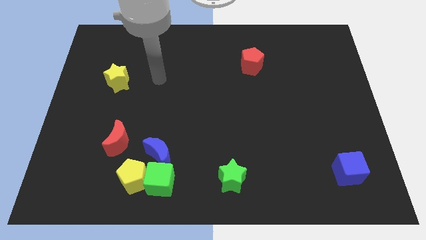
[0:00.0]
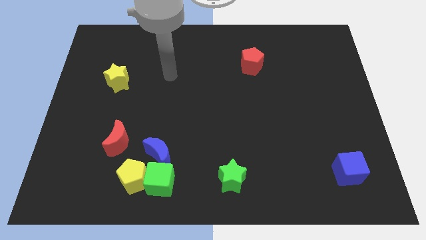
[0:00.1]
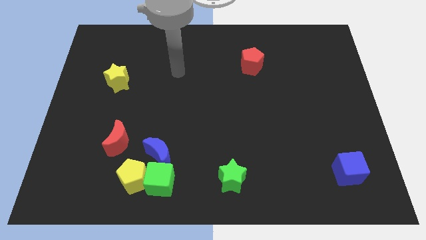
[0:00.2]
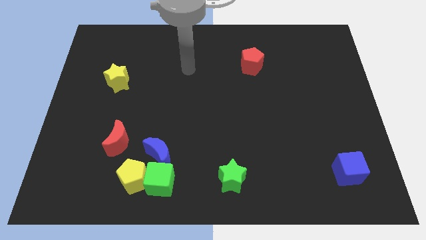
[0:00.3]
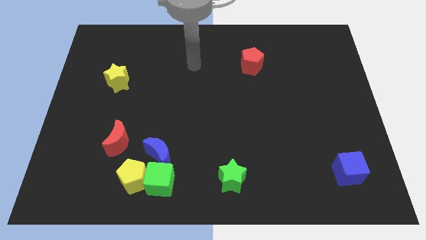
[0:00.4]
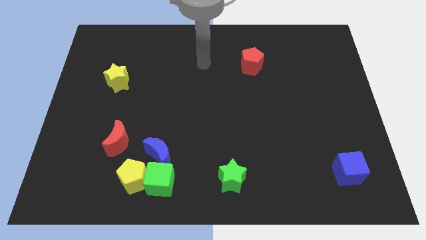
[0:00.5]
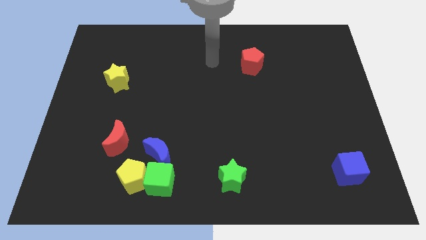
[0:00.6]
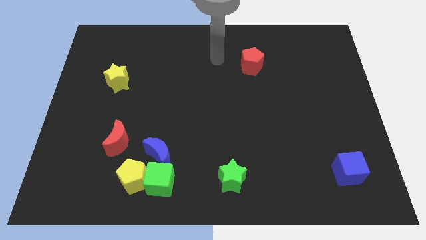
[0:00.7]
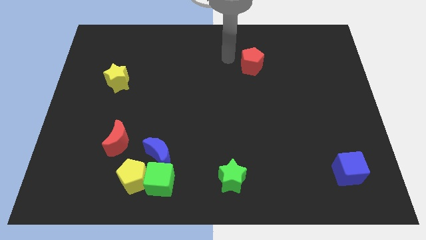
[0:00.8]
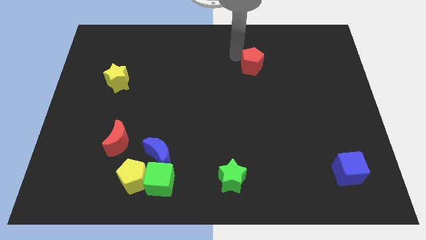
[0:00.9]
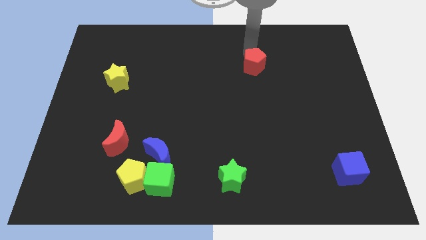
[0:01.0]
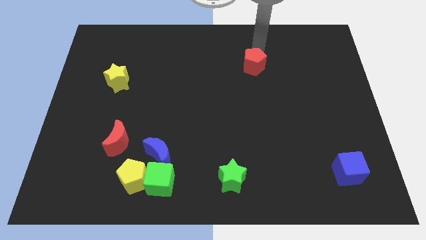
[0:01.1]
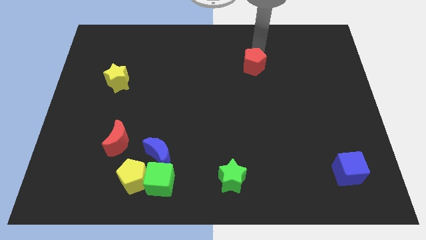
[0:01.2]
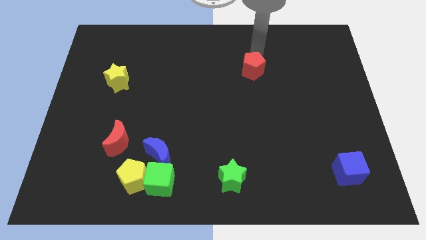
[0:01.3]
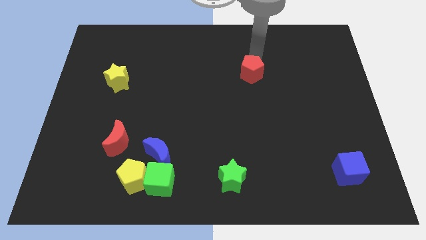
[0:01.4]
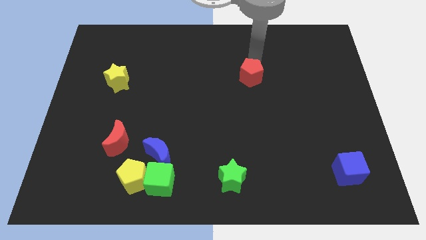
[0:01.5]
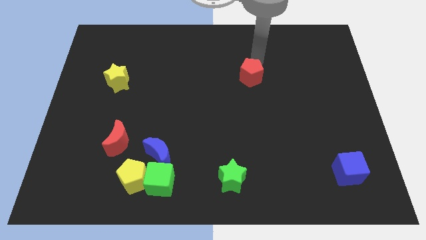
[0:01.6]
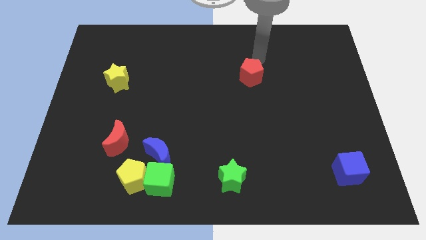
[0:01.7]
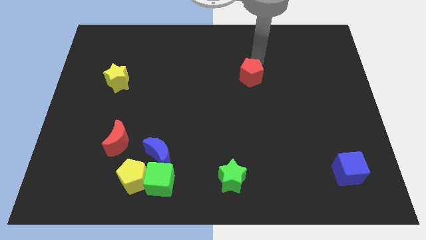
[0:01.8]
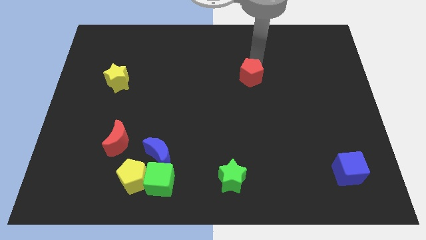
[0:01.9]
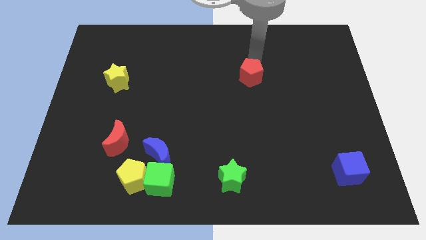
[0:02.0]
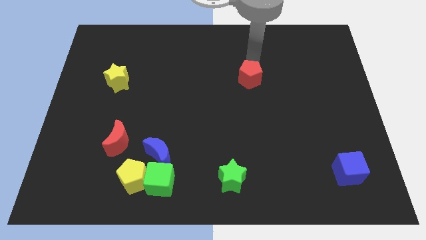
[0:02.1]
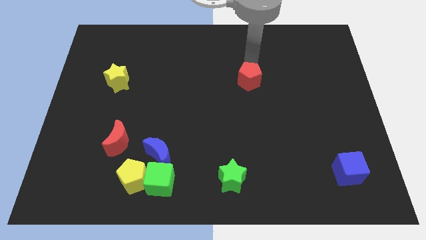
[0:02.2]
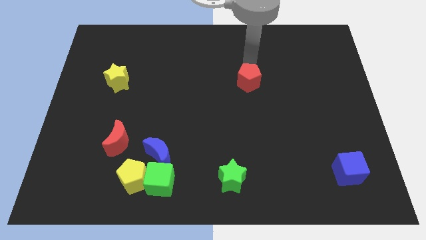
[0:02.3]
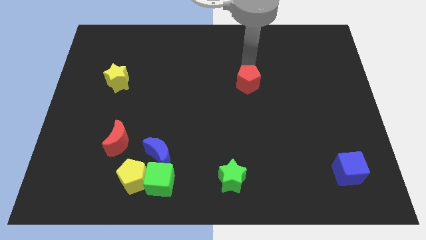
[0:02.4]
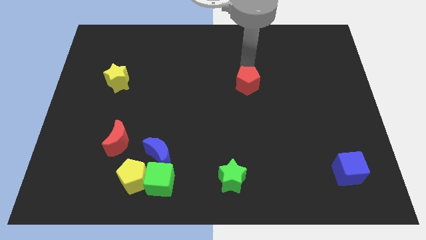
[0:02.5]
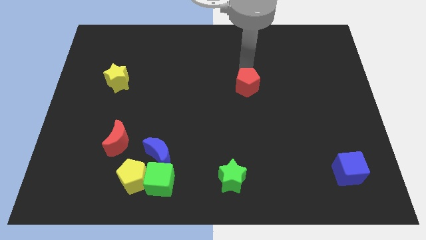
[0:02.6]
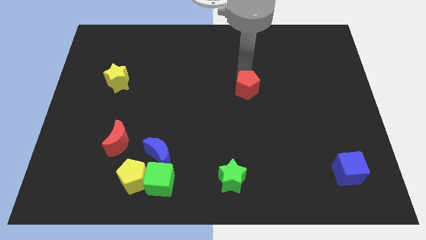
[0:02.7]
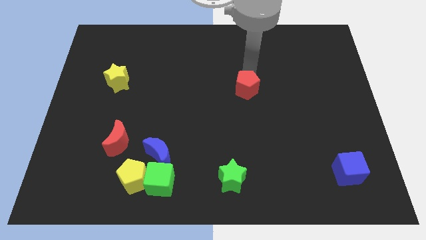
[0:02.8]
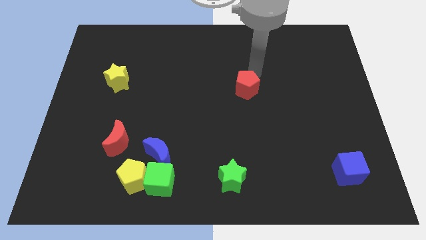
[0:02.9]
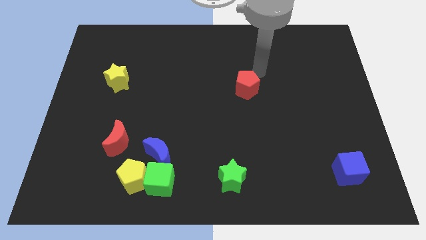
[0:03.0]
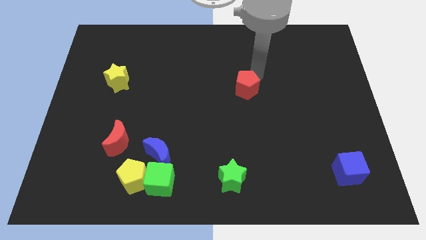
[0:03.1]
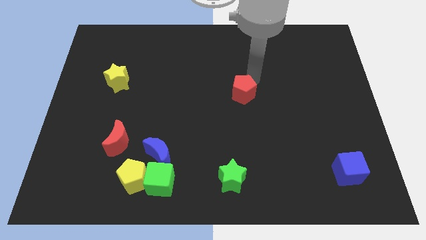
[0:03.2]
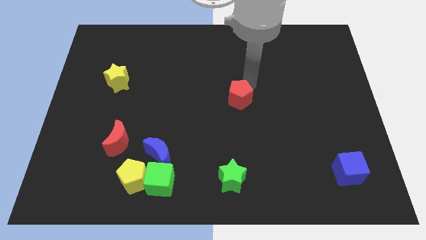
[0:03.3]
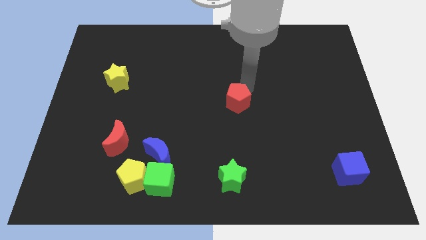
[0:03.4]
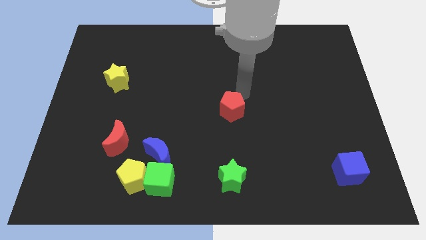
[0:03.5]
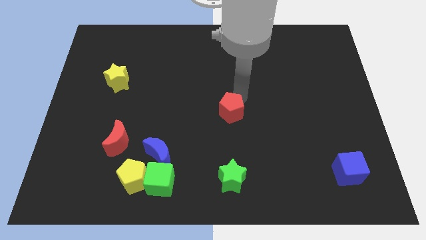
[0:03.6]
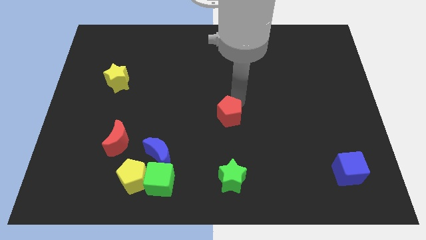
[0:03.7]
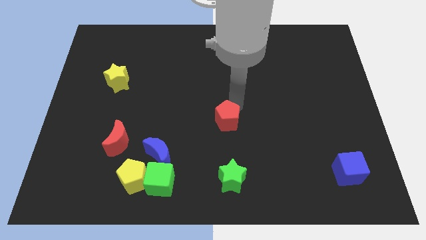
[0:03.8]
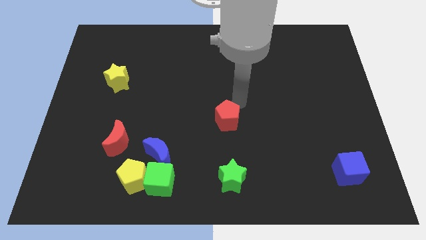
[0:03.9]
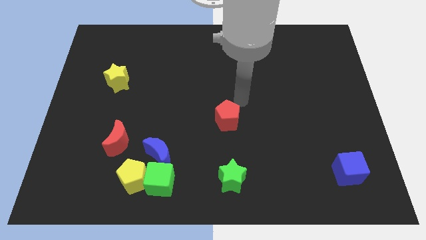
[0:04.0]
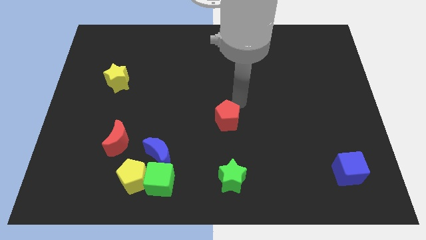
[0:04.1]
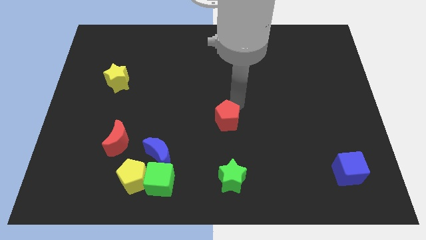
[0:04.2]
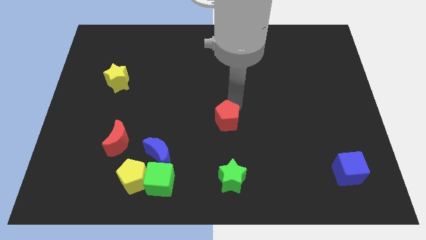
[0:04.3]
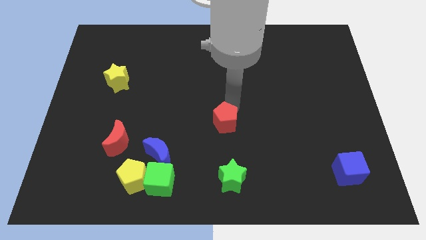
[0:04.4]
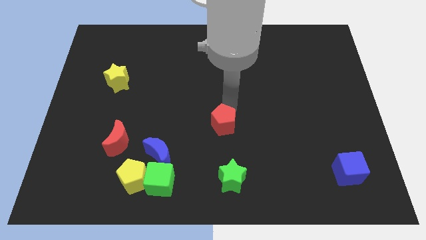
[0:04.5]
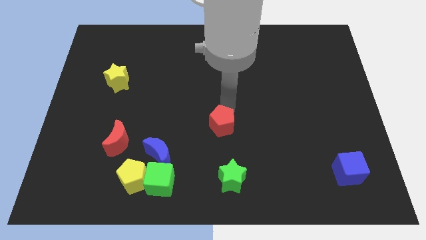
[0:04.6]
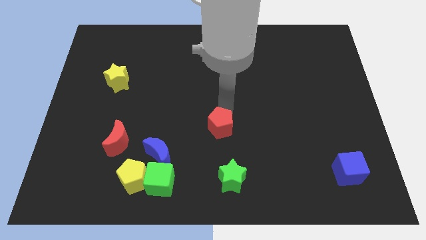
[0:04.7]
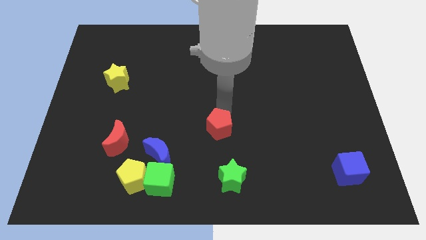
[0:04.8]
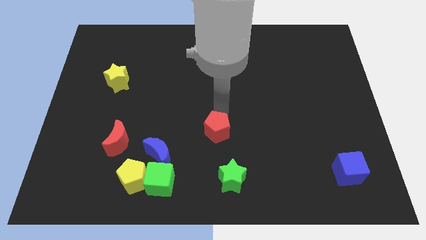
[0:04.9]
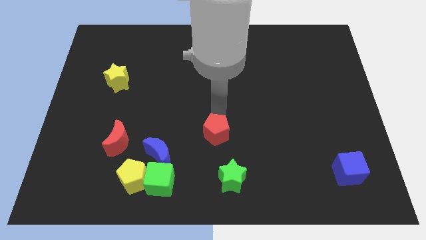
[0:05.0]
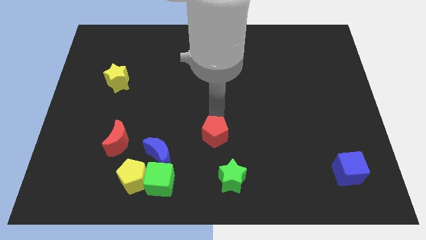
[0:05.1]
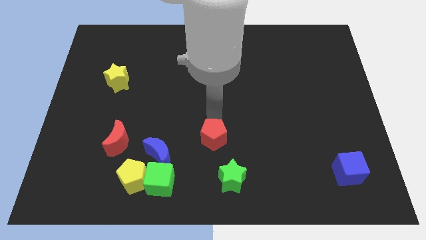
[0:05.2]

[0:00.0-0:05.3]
push the red pentagon to the top left side of the green star

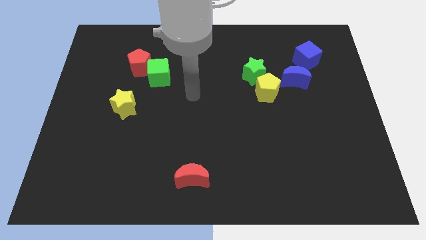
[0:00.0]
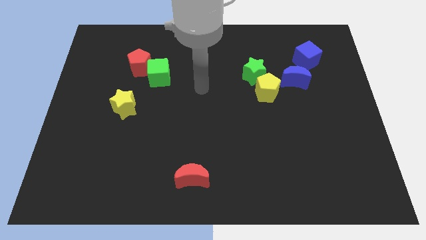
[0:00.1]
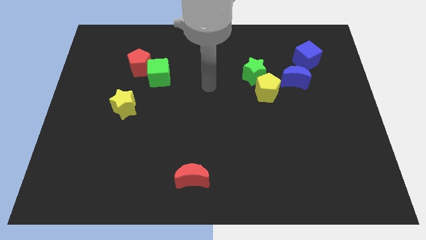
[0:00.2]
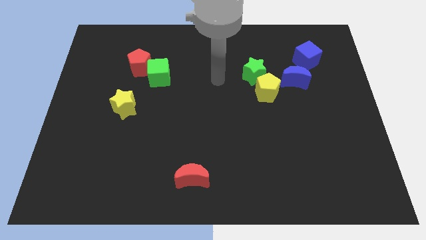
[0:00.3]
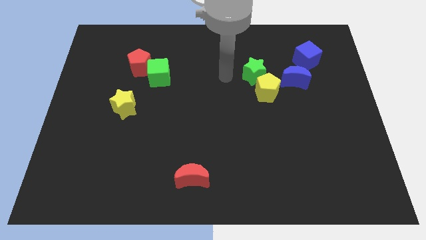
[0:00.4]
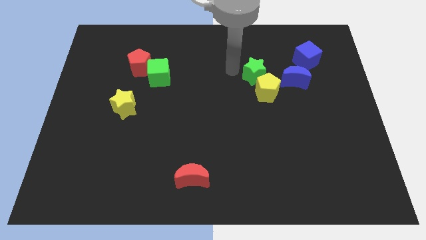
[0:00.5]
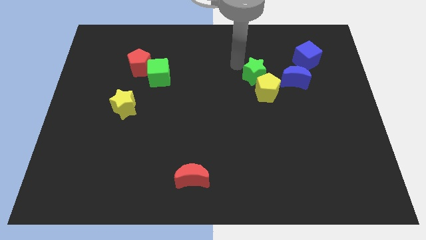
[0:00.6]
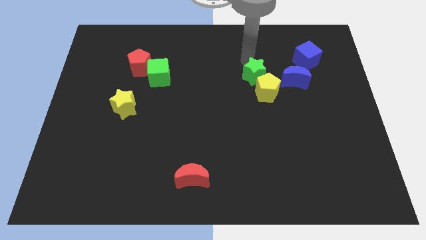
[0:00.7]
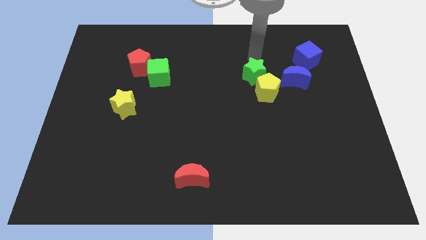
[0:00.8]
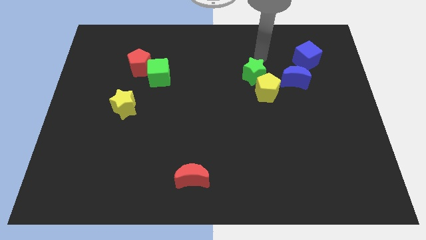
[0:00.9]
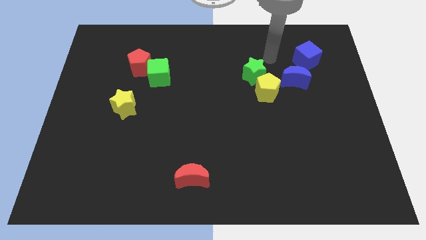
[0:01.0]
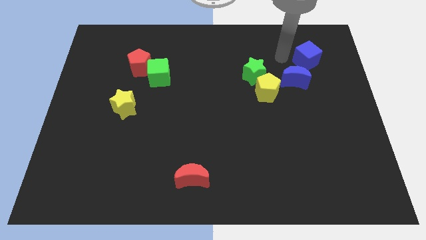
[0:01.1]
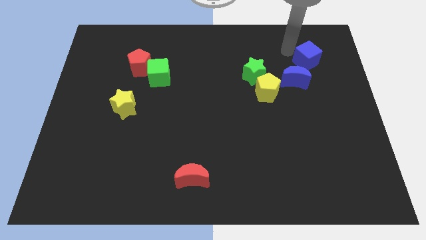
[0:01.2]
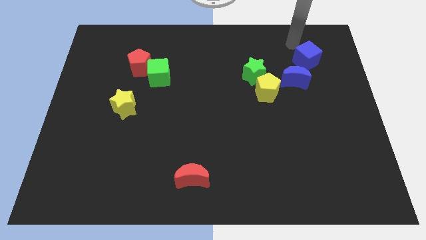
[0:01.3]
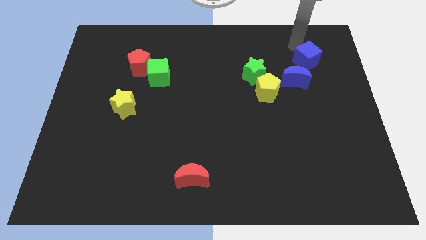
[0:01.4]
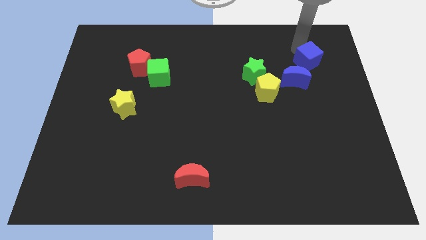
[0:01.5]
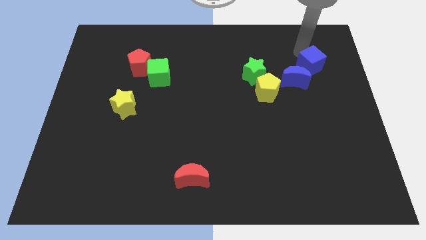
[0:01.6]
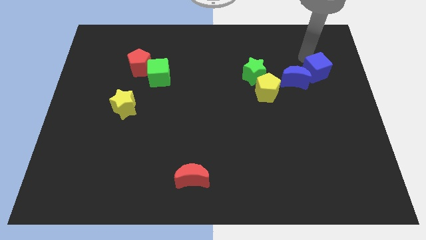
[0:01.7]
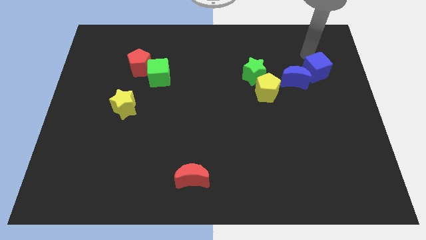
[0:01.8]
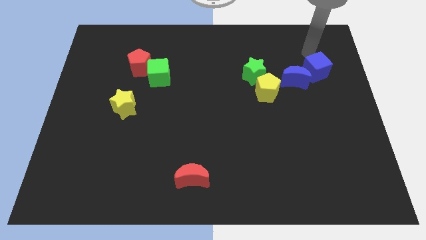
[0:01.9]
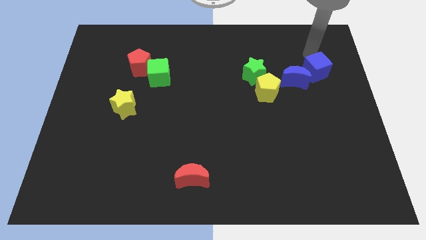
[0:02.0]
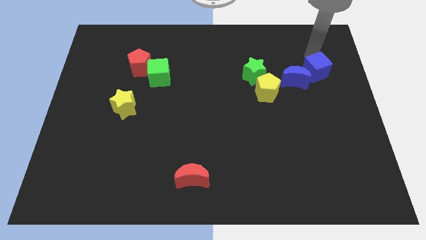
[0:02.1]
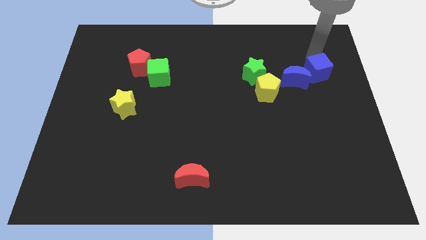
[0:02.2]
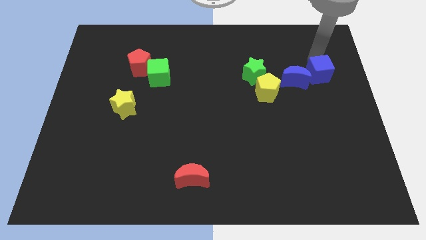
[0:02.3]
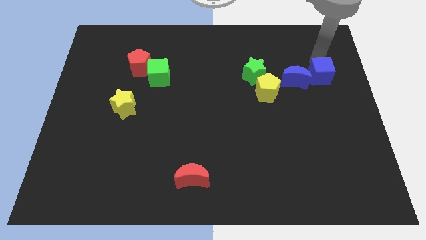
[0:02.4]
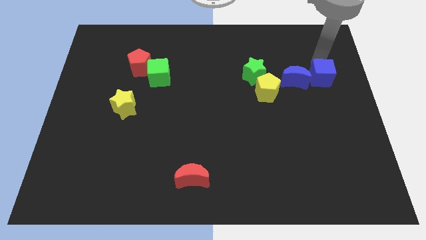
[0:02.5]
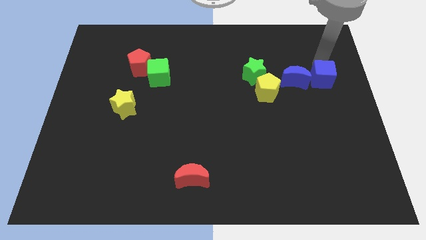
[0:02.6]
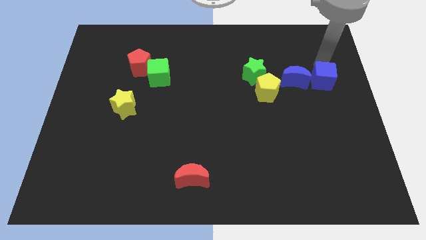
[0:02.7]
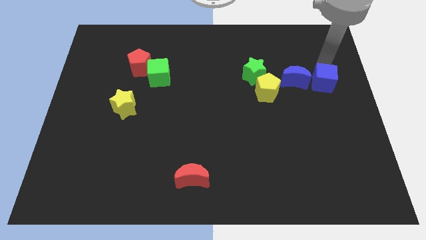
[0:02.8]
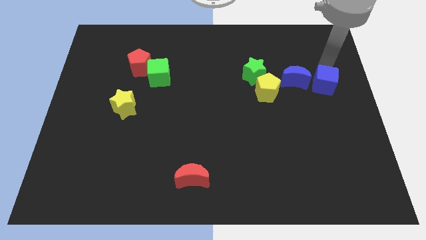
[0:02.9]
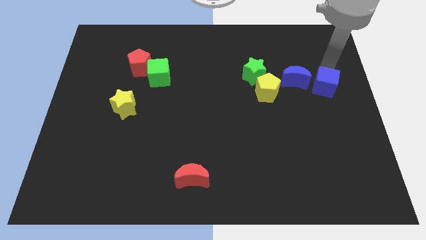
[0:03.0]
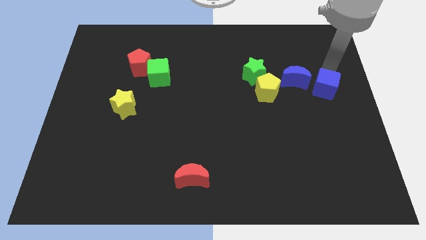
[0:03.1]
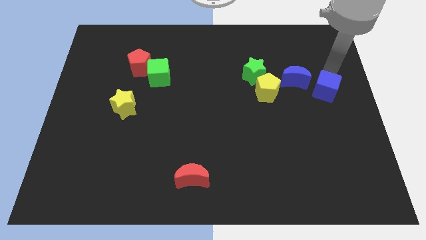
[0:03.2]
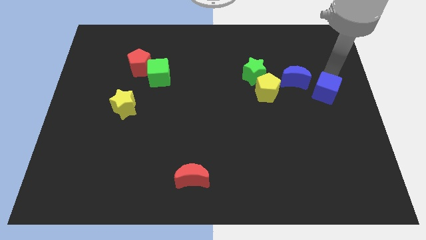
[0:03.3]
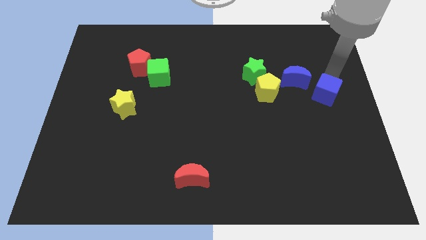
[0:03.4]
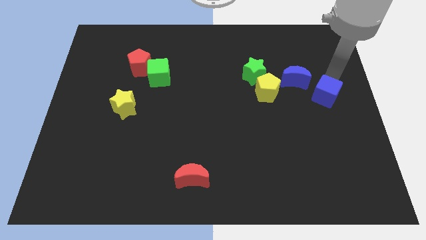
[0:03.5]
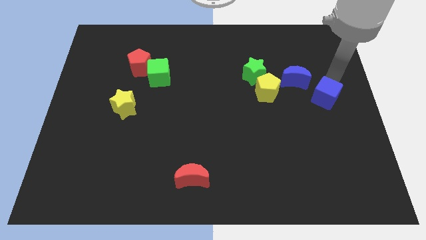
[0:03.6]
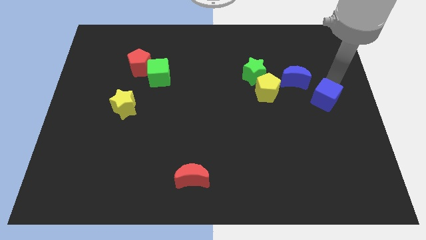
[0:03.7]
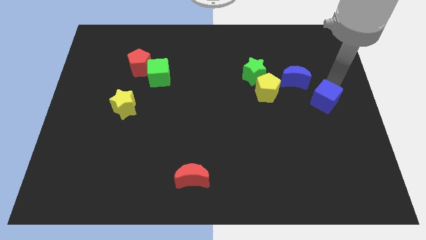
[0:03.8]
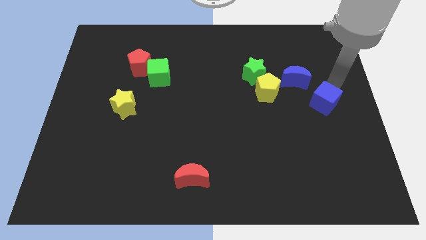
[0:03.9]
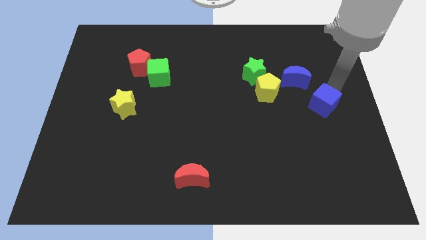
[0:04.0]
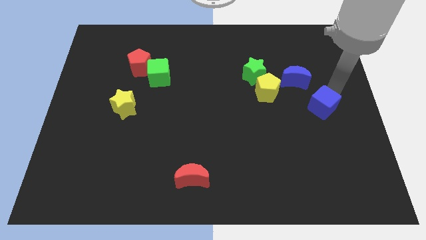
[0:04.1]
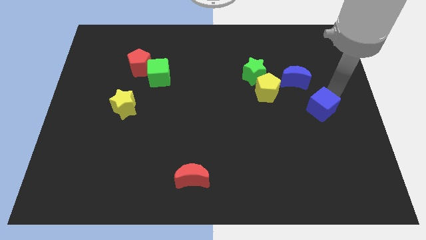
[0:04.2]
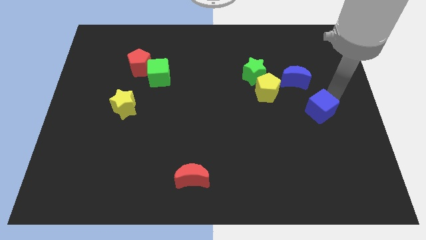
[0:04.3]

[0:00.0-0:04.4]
push the blue cube below the blue moon
